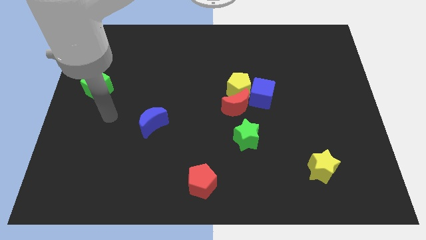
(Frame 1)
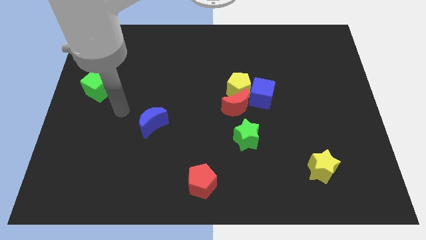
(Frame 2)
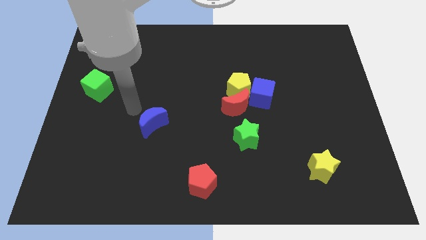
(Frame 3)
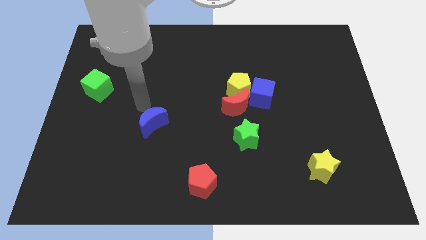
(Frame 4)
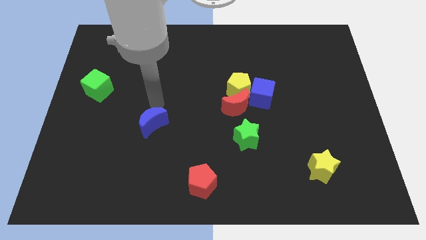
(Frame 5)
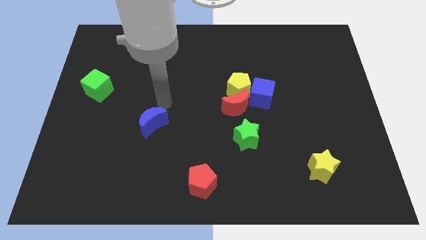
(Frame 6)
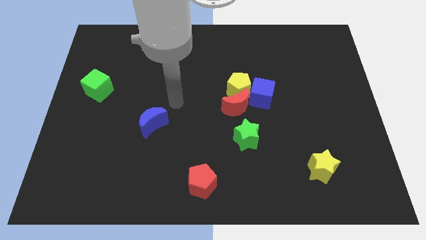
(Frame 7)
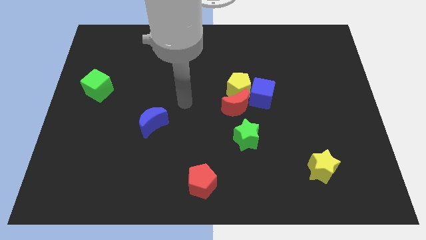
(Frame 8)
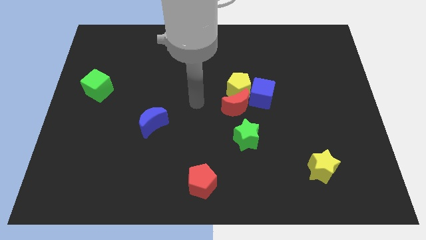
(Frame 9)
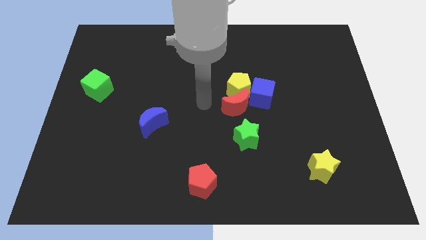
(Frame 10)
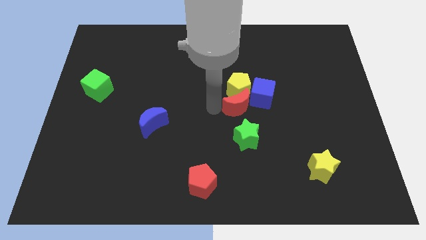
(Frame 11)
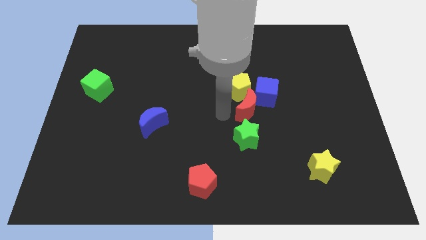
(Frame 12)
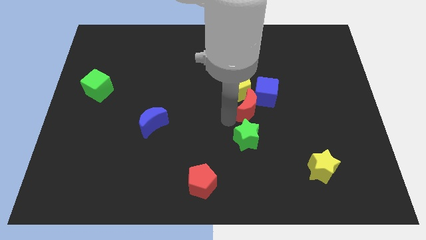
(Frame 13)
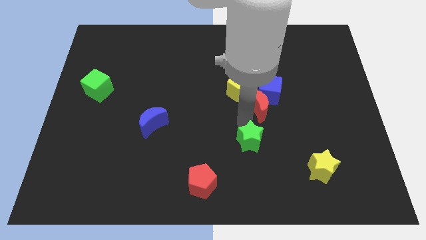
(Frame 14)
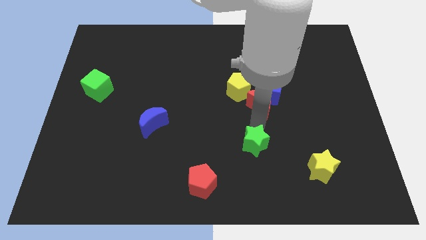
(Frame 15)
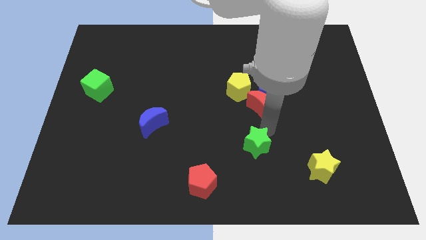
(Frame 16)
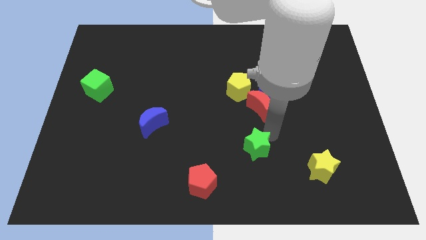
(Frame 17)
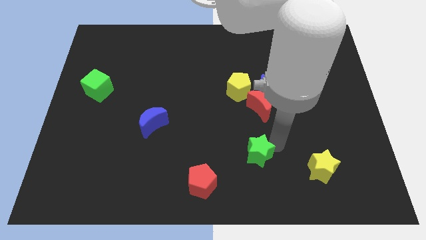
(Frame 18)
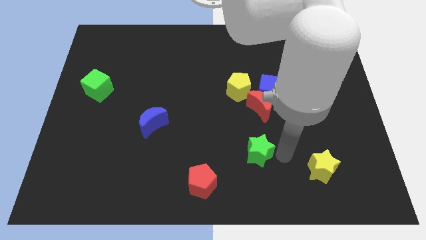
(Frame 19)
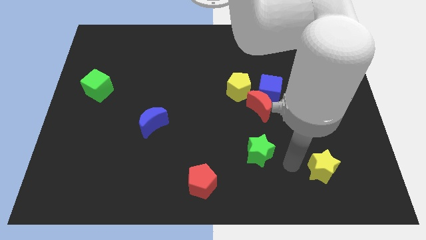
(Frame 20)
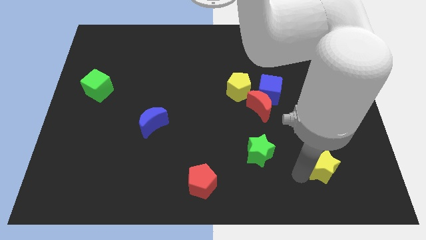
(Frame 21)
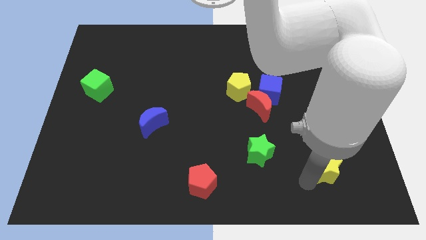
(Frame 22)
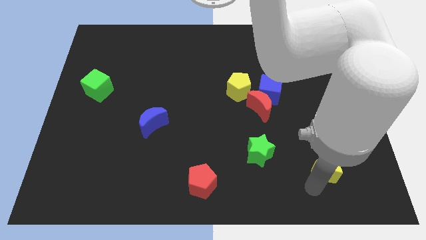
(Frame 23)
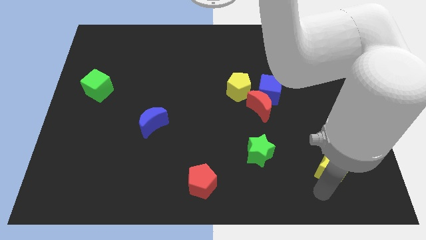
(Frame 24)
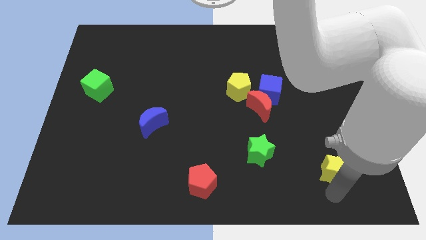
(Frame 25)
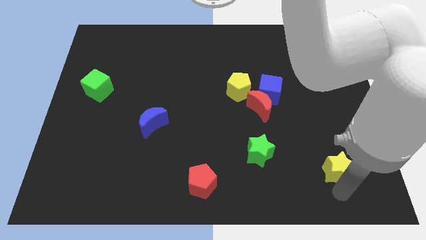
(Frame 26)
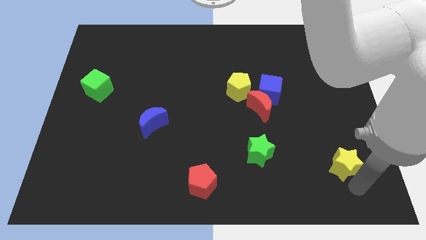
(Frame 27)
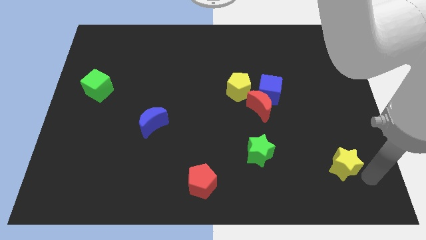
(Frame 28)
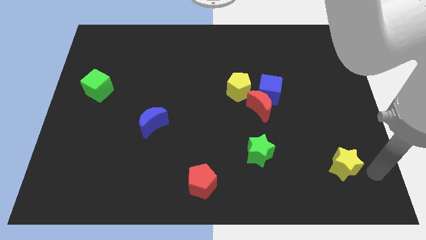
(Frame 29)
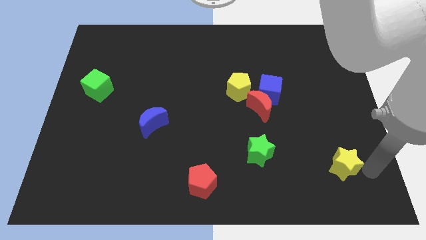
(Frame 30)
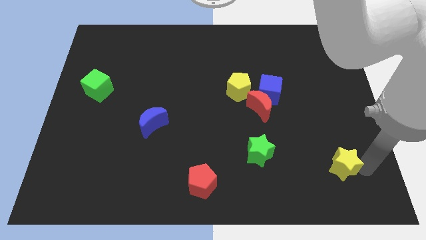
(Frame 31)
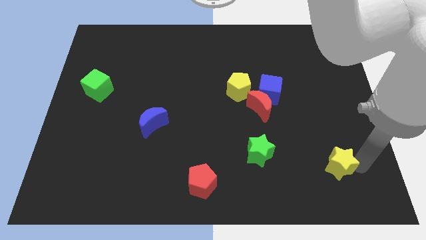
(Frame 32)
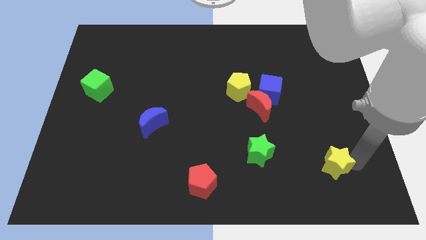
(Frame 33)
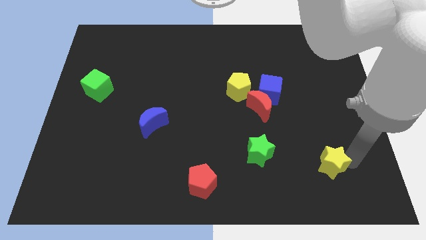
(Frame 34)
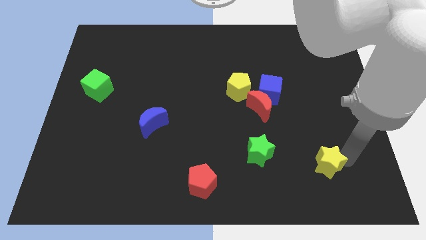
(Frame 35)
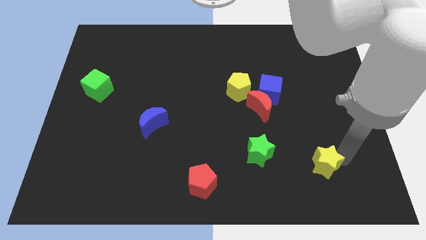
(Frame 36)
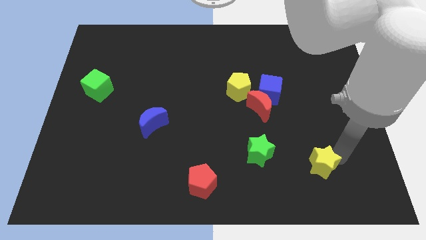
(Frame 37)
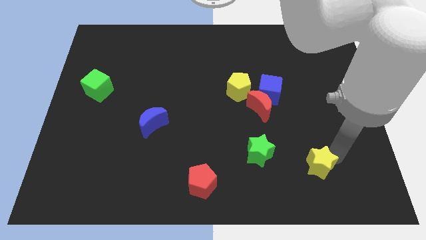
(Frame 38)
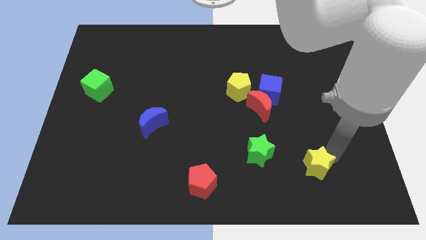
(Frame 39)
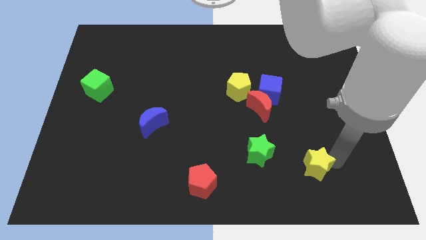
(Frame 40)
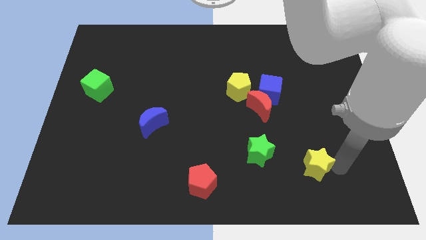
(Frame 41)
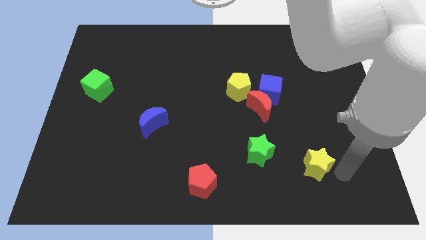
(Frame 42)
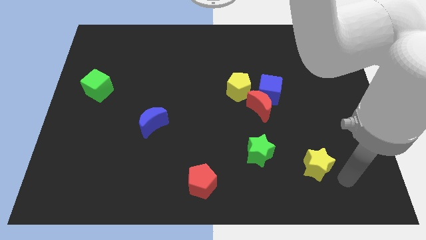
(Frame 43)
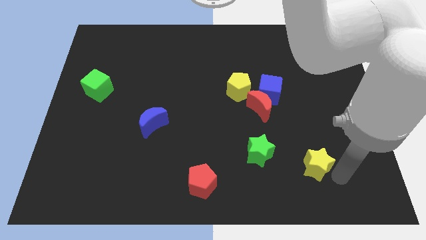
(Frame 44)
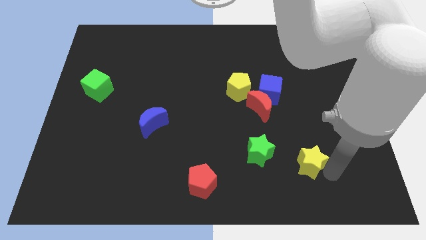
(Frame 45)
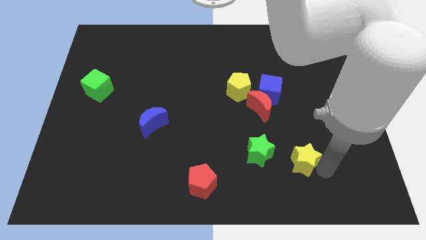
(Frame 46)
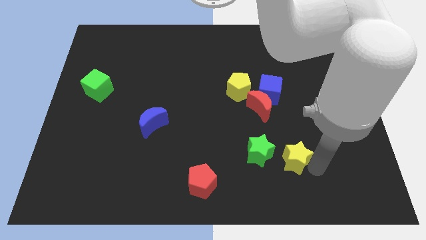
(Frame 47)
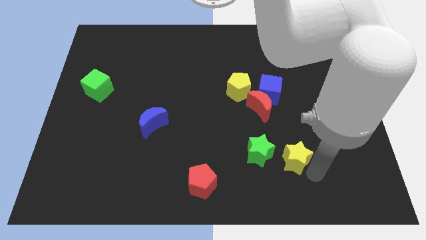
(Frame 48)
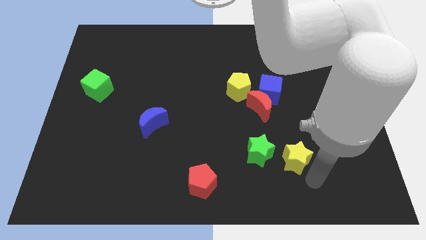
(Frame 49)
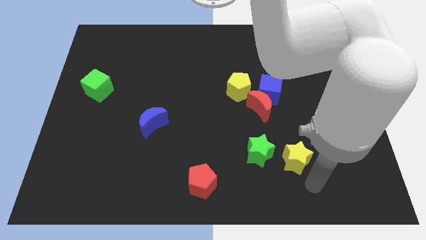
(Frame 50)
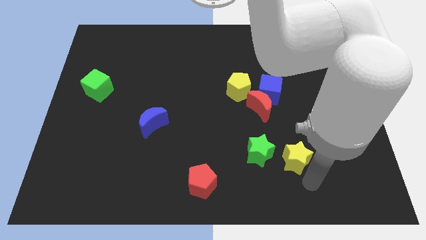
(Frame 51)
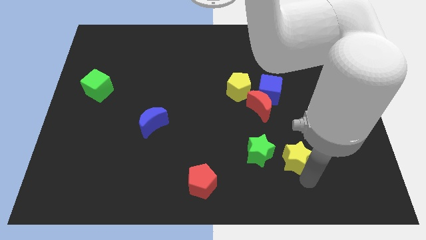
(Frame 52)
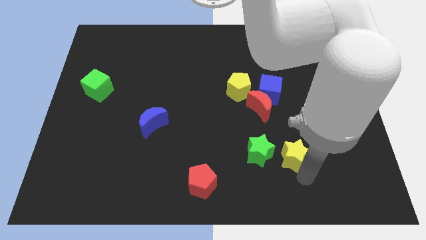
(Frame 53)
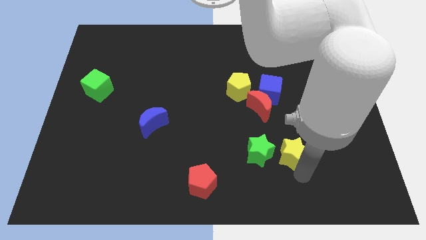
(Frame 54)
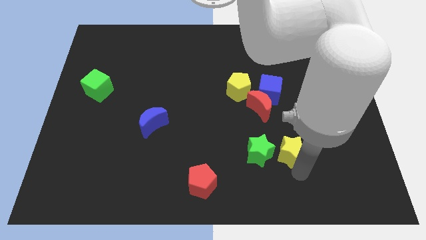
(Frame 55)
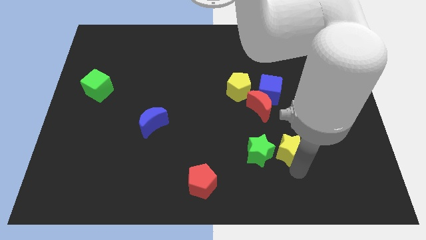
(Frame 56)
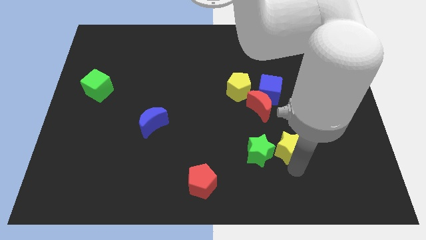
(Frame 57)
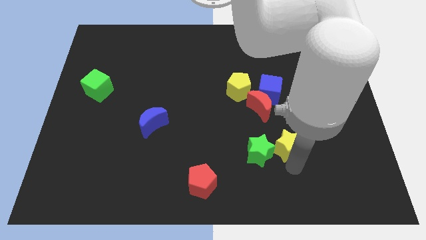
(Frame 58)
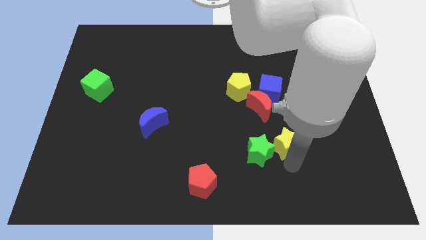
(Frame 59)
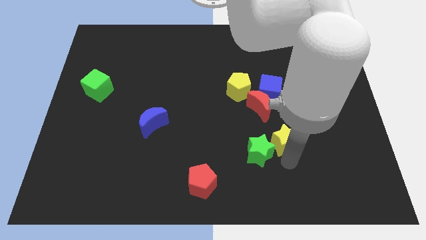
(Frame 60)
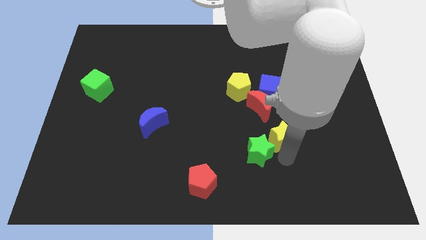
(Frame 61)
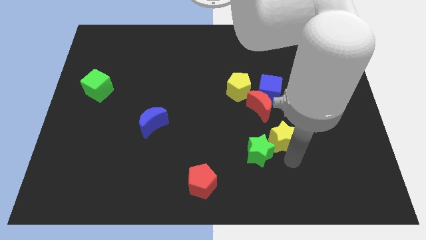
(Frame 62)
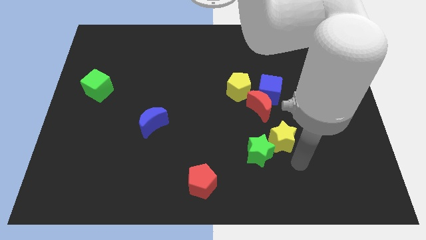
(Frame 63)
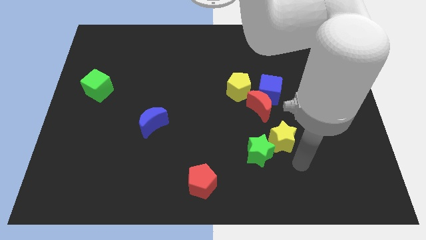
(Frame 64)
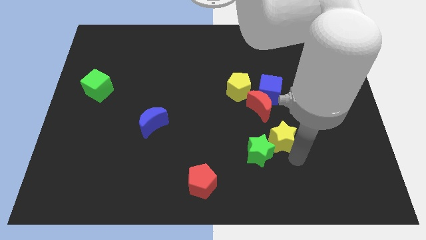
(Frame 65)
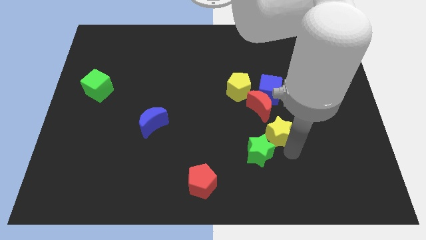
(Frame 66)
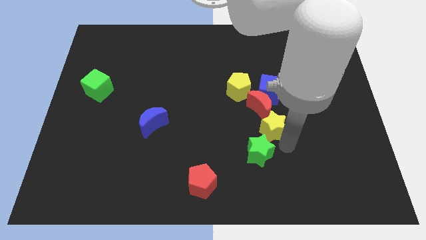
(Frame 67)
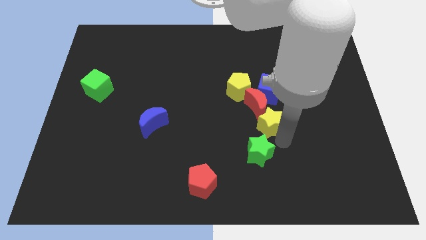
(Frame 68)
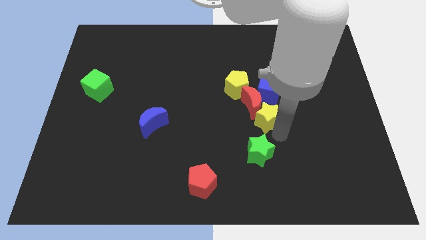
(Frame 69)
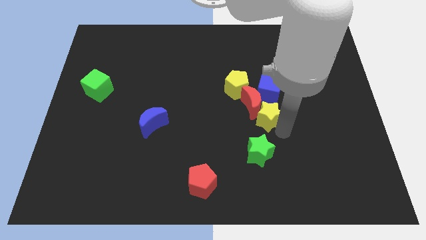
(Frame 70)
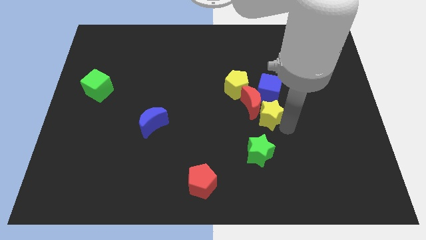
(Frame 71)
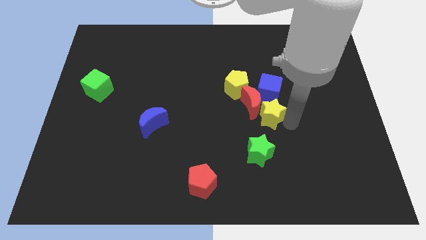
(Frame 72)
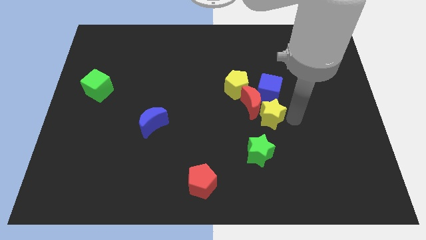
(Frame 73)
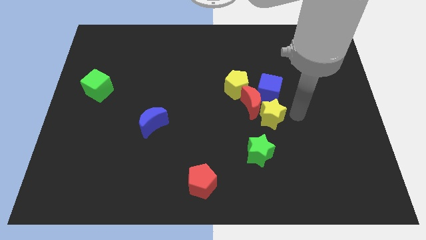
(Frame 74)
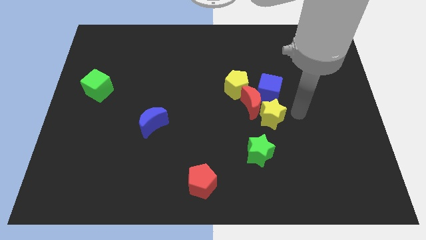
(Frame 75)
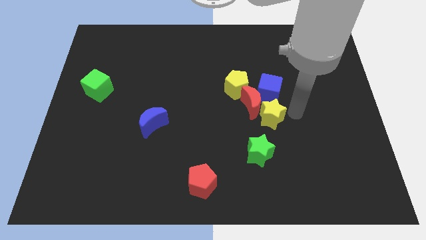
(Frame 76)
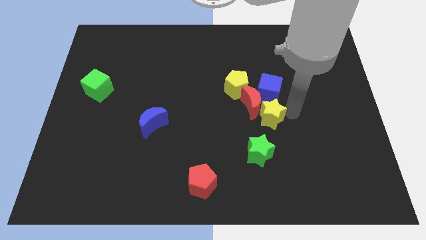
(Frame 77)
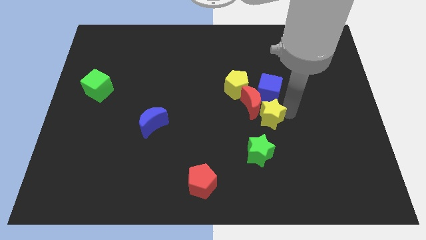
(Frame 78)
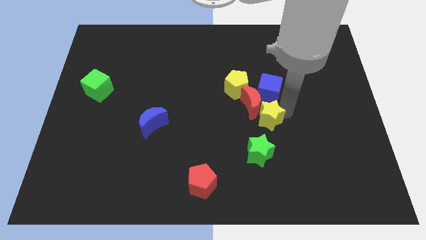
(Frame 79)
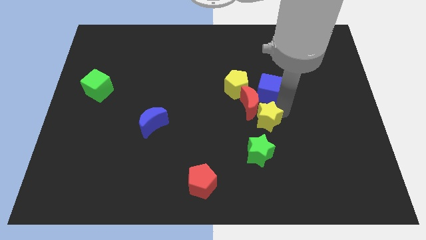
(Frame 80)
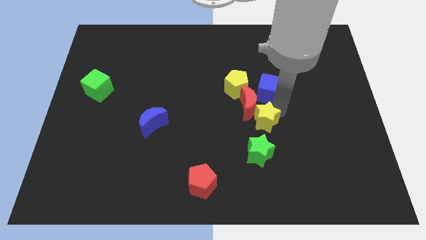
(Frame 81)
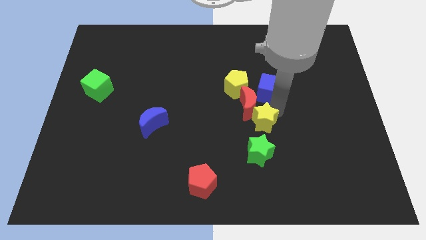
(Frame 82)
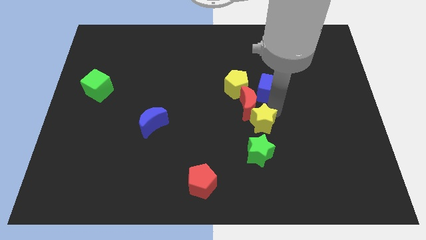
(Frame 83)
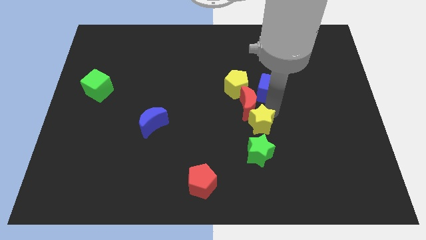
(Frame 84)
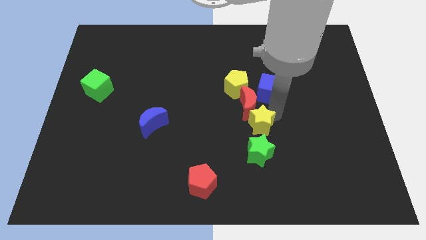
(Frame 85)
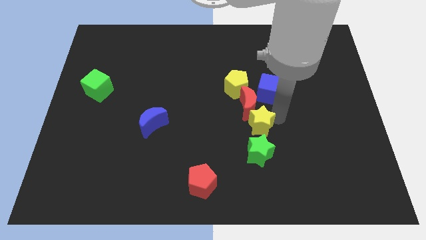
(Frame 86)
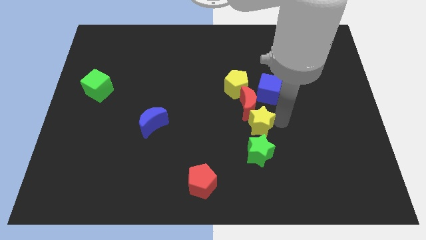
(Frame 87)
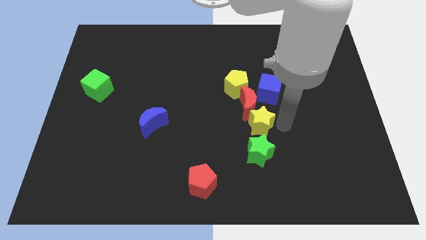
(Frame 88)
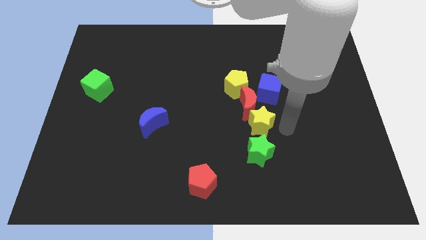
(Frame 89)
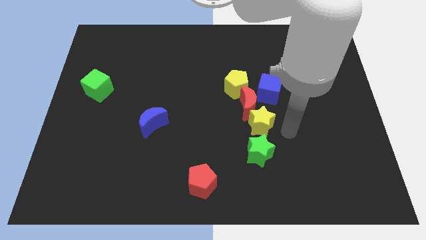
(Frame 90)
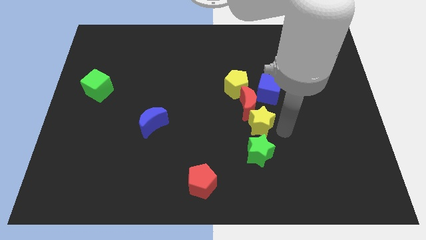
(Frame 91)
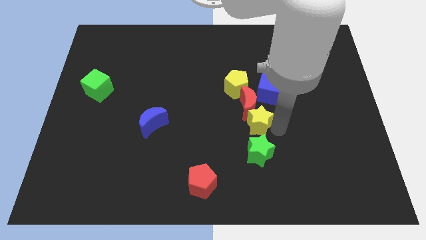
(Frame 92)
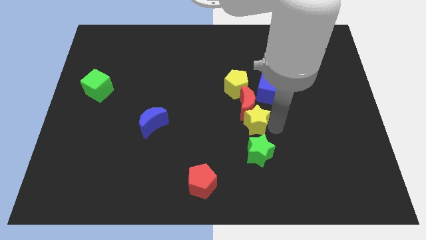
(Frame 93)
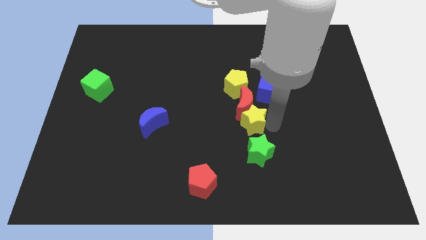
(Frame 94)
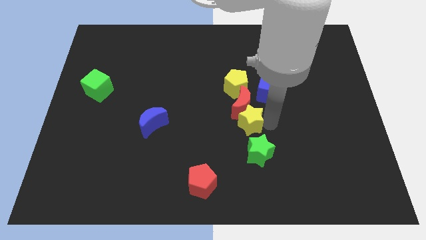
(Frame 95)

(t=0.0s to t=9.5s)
push the yellow star to the top left of the green star
